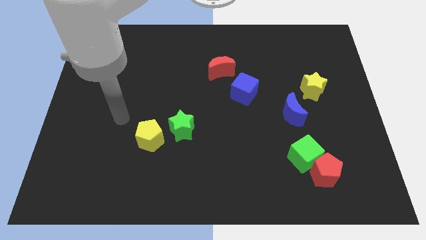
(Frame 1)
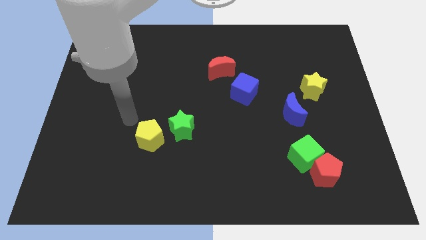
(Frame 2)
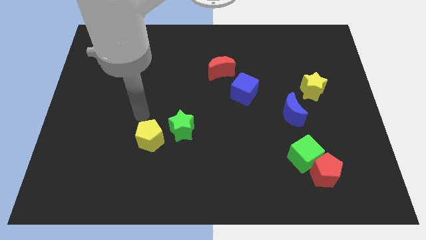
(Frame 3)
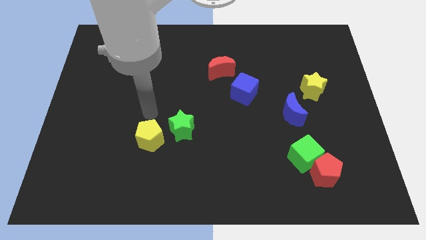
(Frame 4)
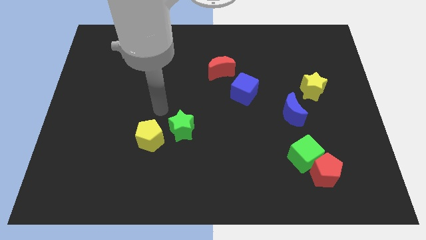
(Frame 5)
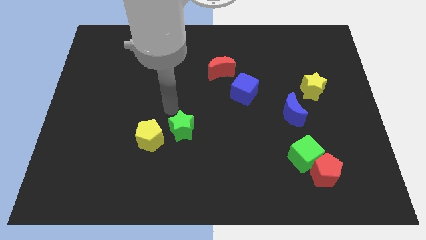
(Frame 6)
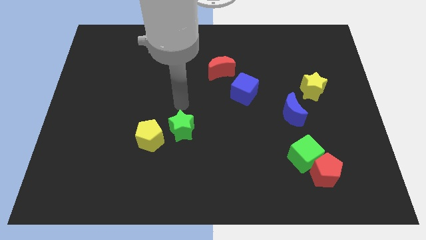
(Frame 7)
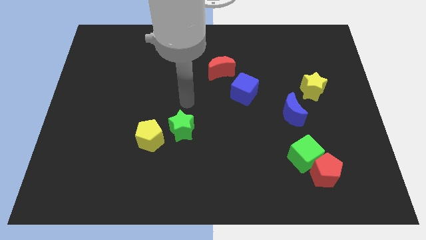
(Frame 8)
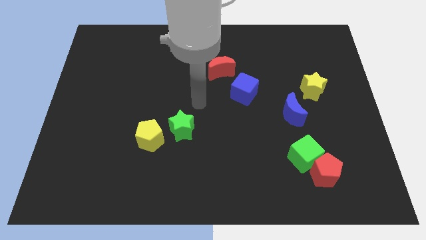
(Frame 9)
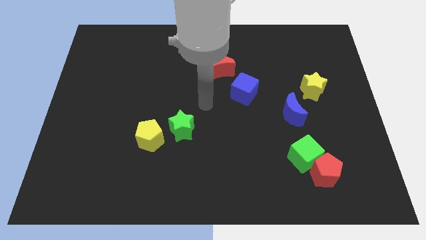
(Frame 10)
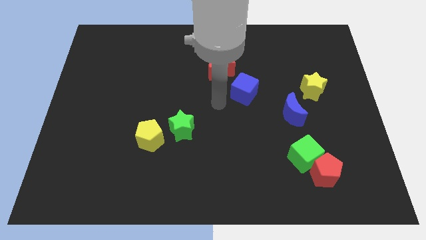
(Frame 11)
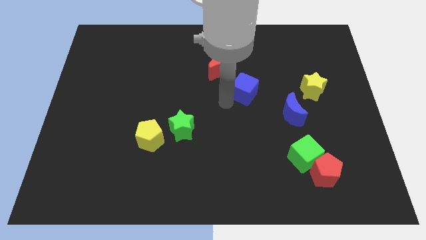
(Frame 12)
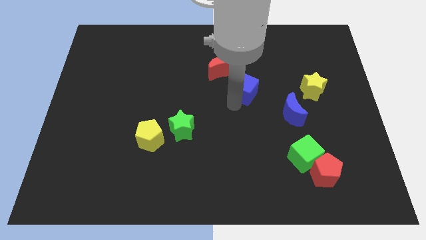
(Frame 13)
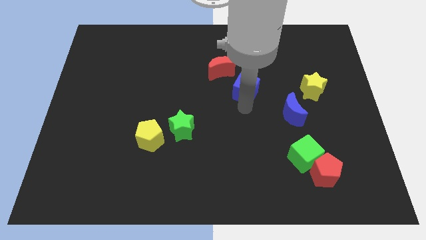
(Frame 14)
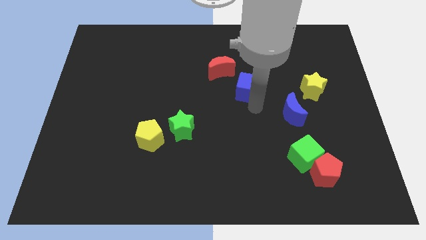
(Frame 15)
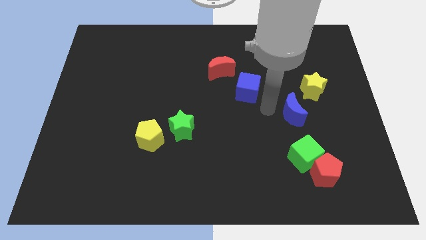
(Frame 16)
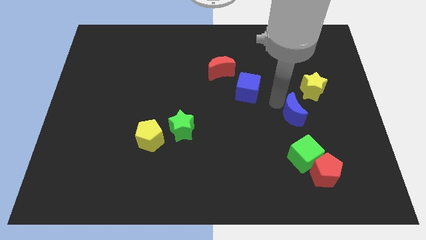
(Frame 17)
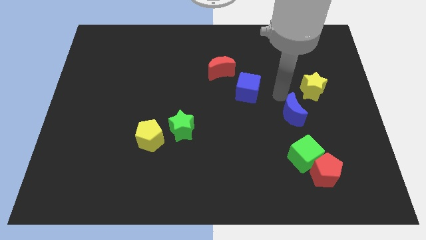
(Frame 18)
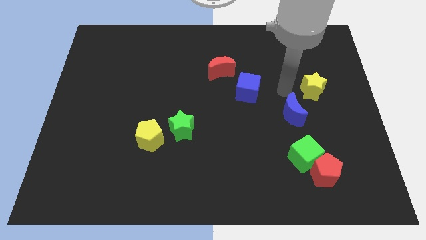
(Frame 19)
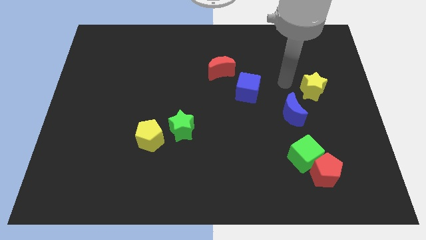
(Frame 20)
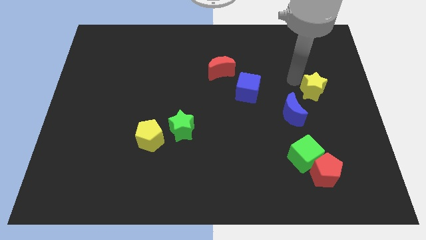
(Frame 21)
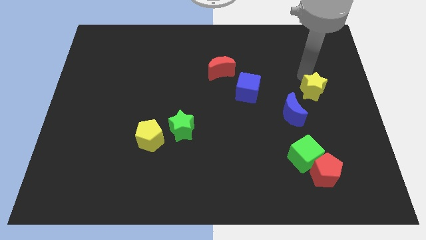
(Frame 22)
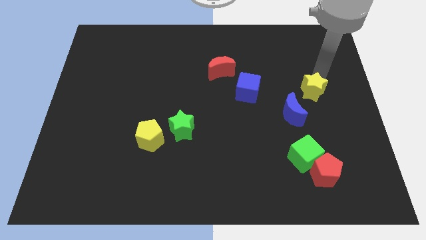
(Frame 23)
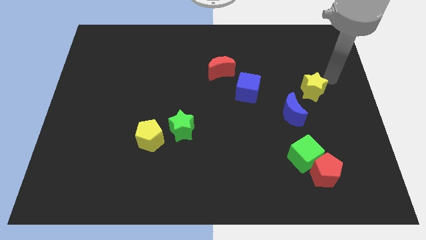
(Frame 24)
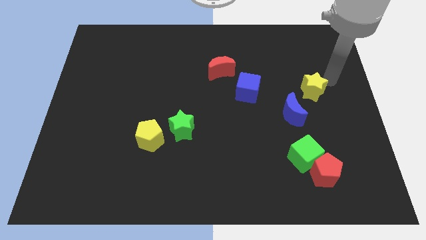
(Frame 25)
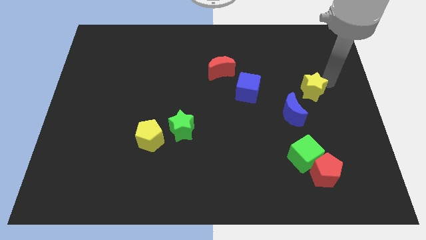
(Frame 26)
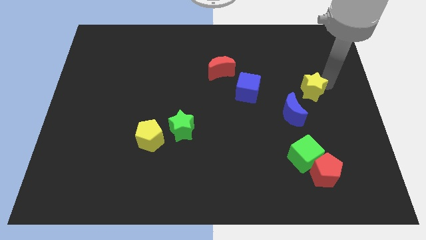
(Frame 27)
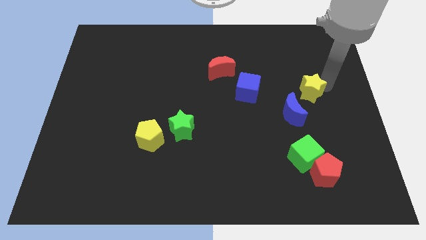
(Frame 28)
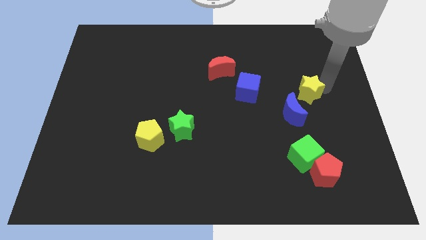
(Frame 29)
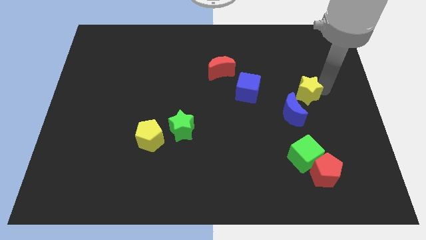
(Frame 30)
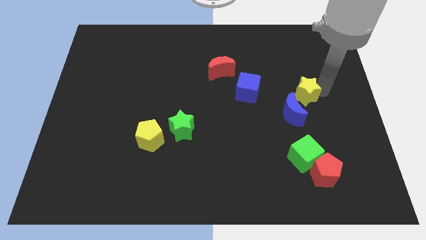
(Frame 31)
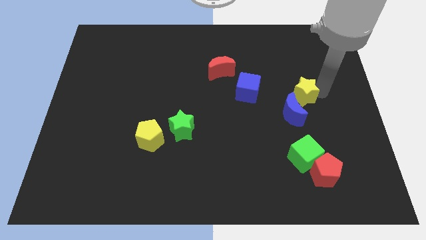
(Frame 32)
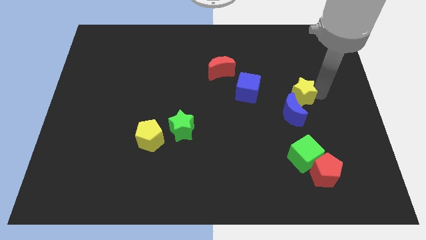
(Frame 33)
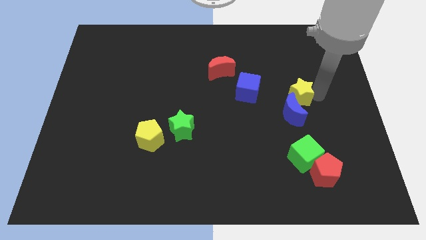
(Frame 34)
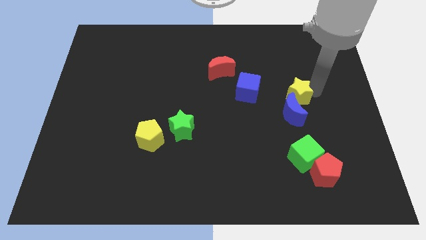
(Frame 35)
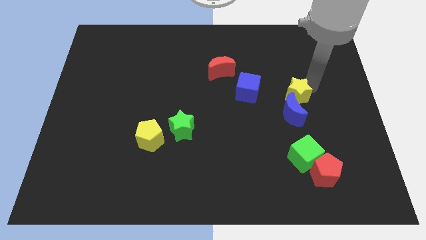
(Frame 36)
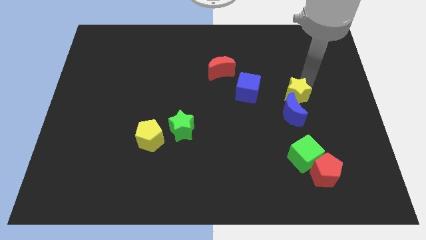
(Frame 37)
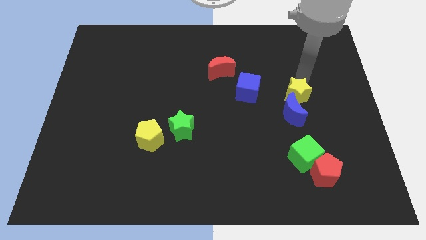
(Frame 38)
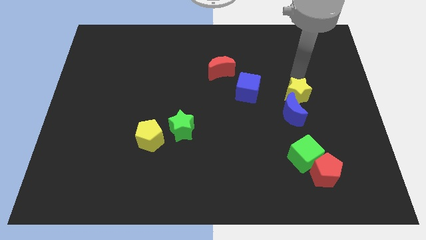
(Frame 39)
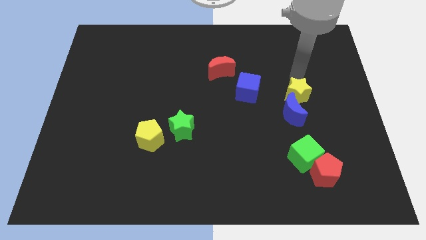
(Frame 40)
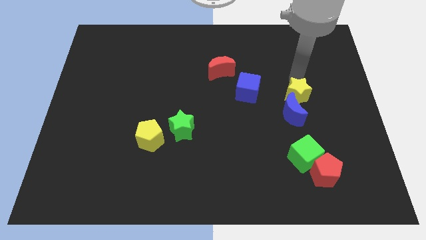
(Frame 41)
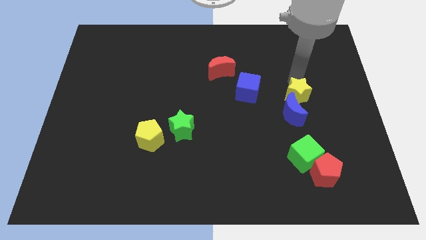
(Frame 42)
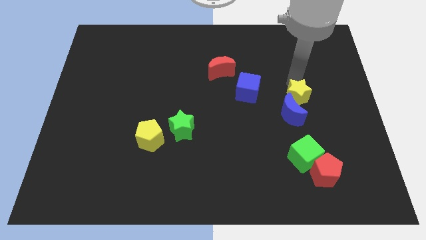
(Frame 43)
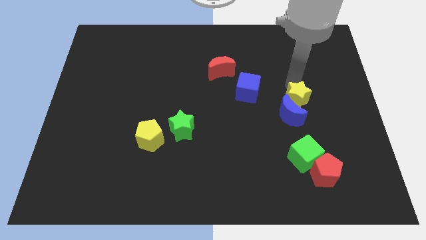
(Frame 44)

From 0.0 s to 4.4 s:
slide the yellow star to the top side of the green cube

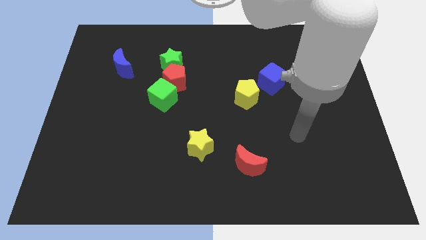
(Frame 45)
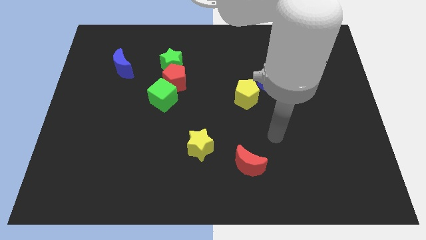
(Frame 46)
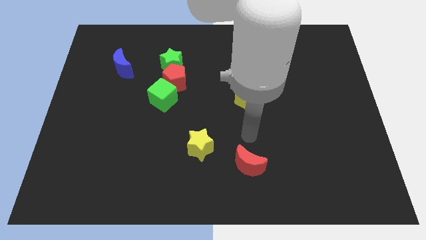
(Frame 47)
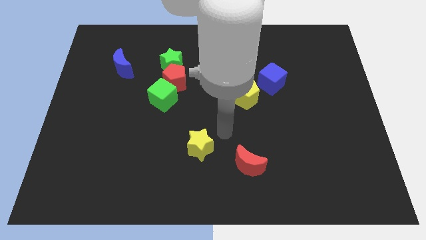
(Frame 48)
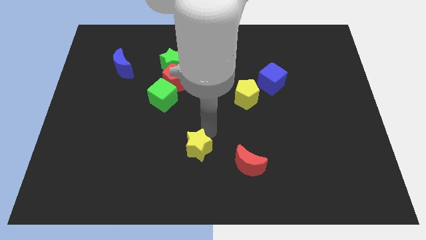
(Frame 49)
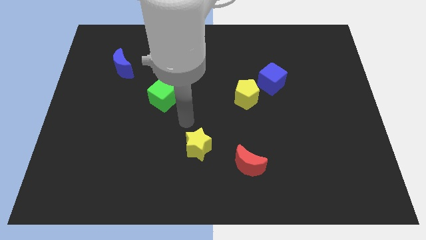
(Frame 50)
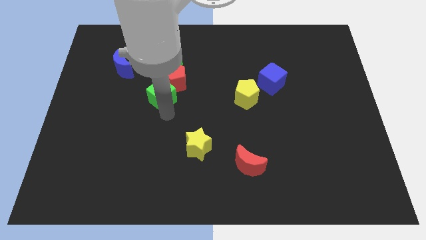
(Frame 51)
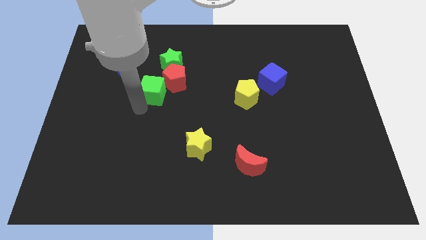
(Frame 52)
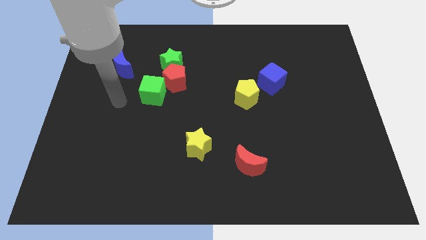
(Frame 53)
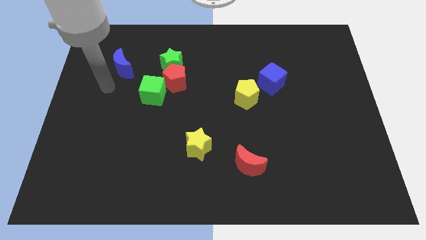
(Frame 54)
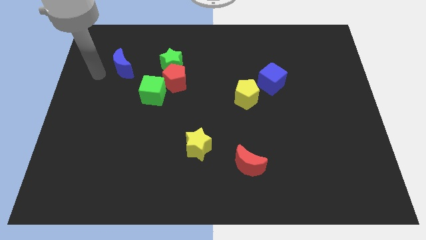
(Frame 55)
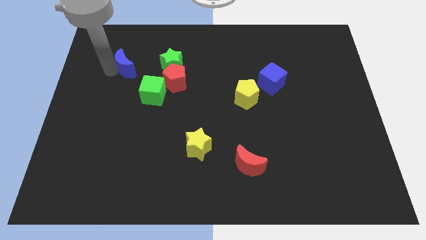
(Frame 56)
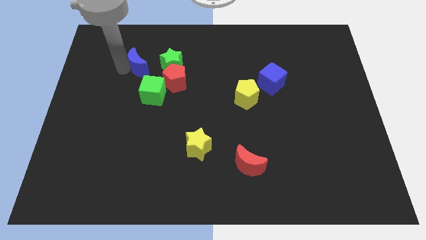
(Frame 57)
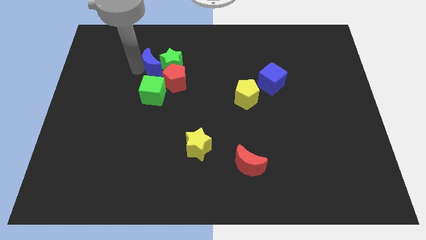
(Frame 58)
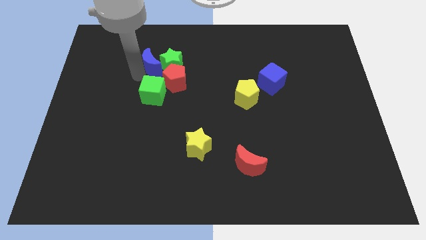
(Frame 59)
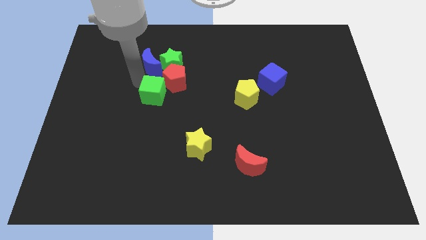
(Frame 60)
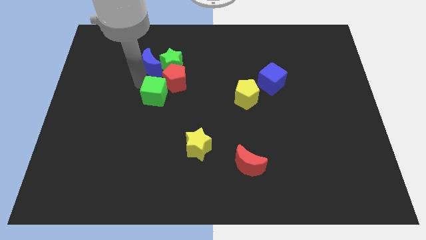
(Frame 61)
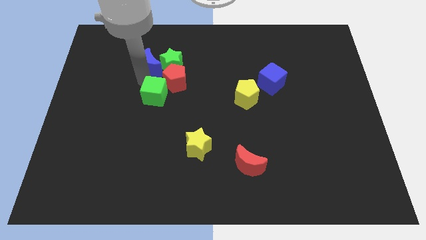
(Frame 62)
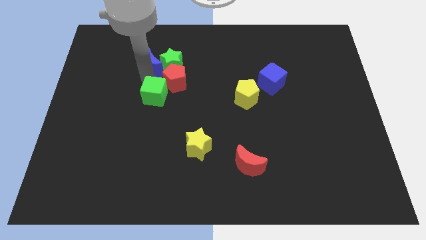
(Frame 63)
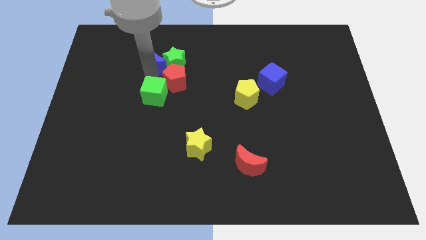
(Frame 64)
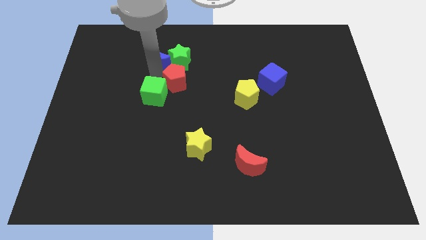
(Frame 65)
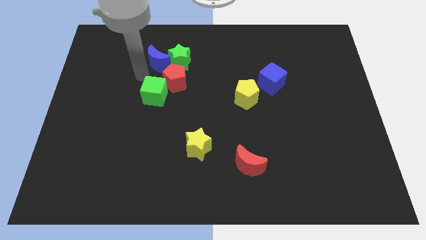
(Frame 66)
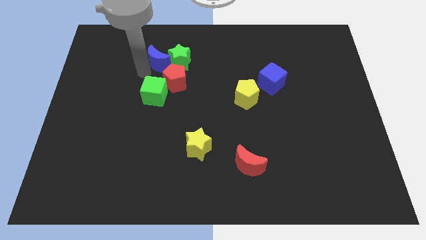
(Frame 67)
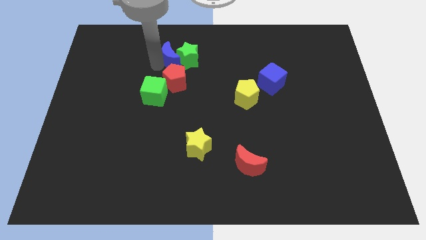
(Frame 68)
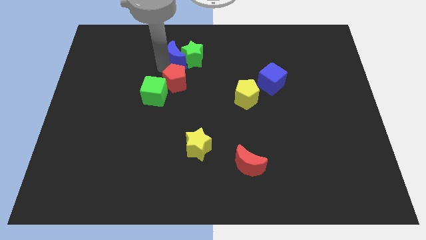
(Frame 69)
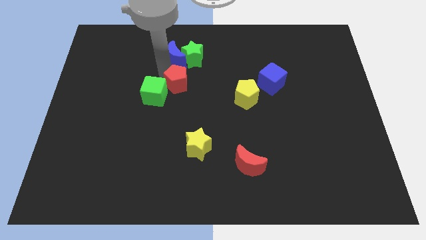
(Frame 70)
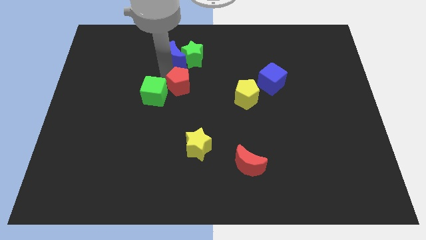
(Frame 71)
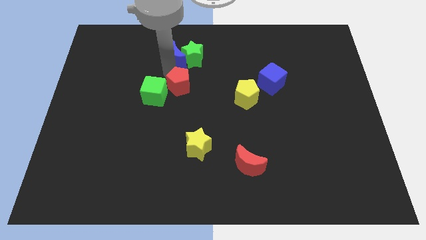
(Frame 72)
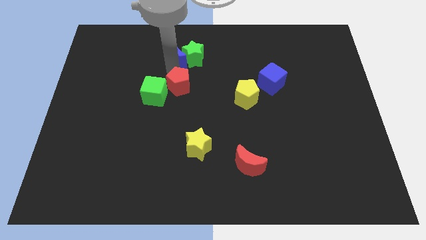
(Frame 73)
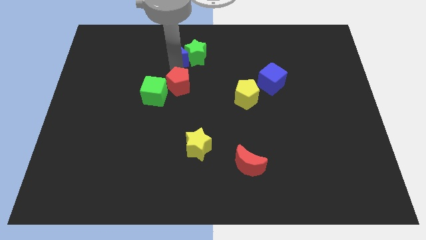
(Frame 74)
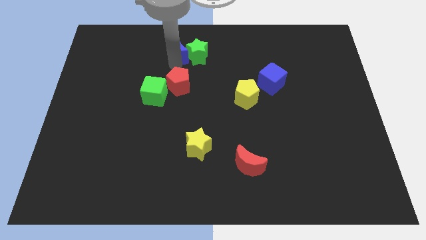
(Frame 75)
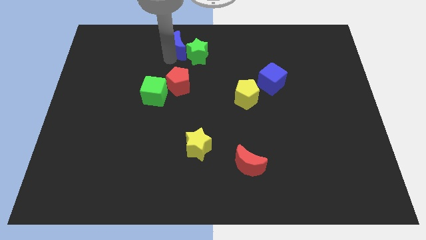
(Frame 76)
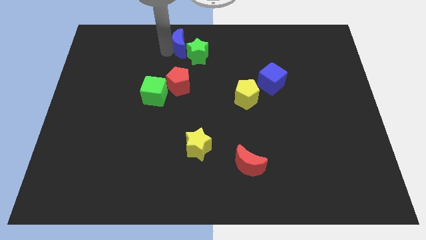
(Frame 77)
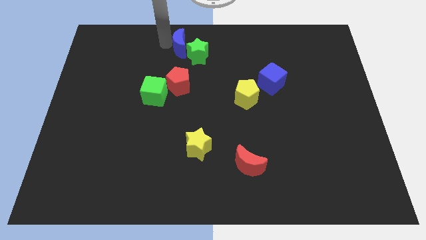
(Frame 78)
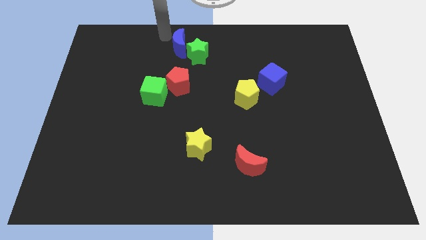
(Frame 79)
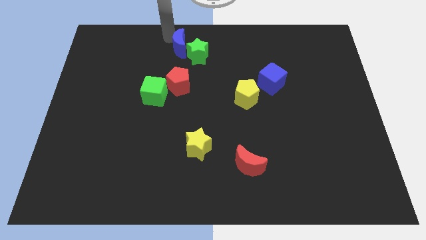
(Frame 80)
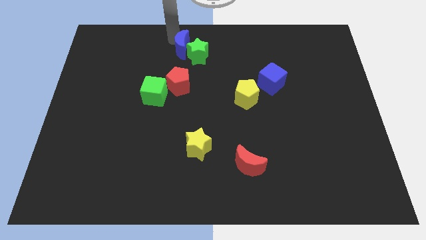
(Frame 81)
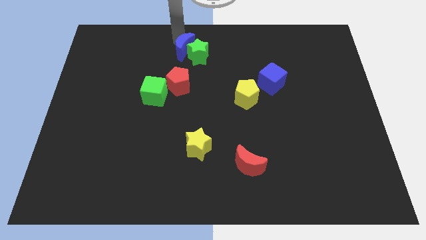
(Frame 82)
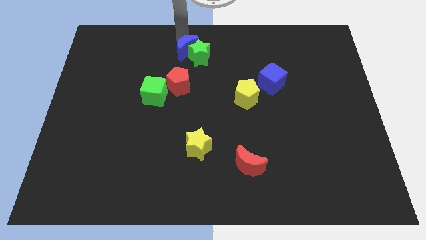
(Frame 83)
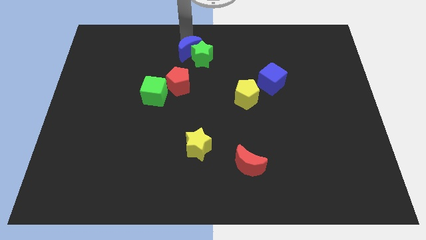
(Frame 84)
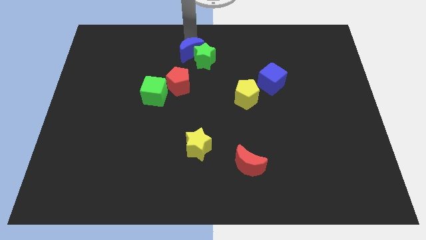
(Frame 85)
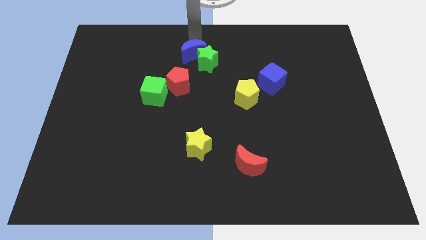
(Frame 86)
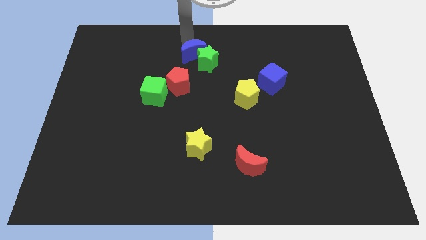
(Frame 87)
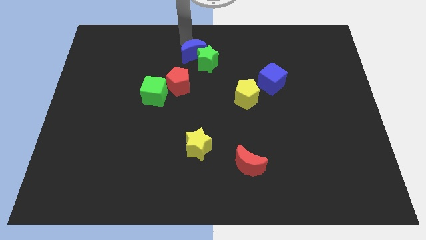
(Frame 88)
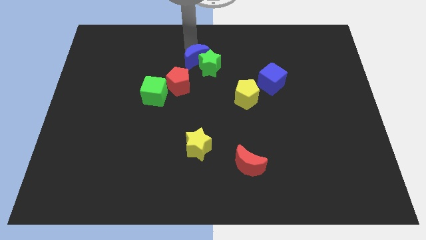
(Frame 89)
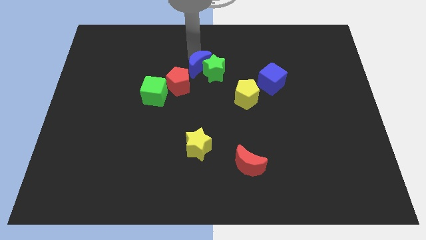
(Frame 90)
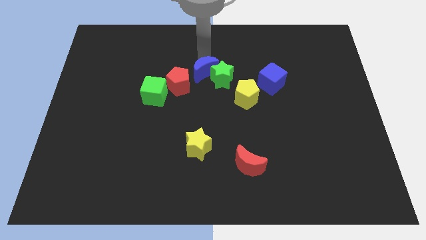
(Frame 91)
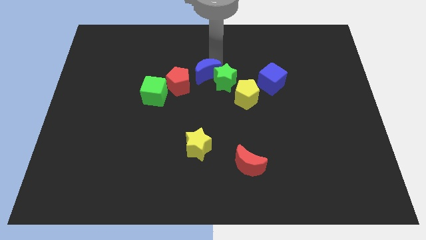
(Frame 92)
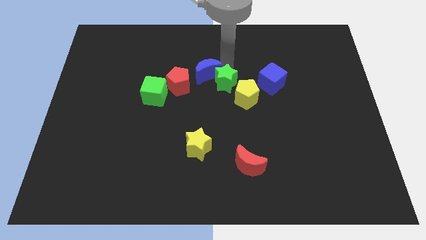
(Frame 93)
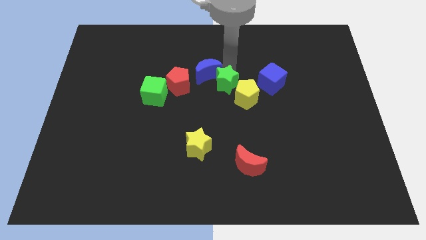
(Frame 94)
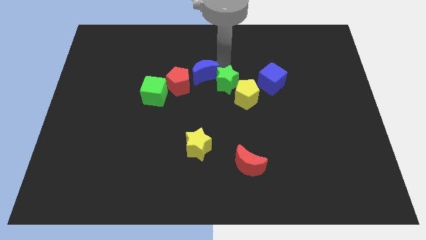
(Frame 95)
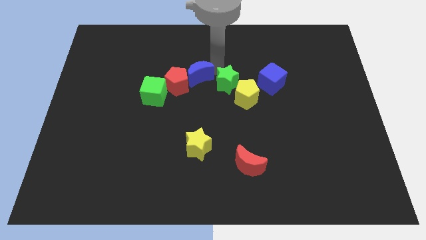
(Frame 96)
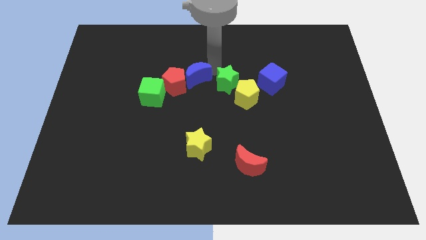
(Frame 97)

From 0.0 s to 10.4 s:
slide the blue moon to the top right of the green cube
